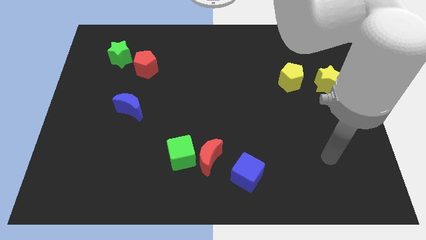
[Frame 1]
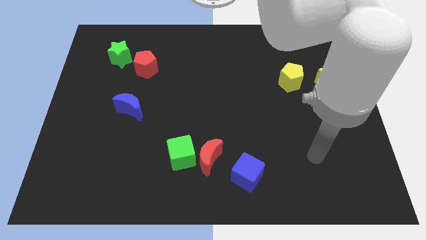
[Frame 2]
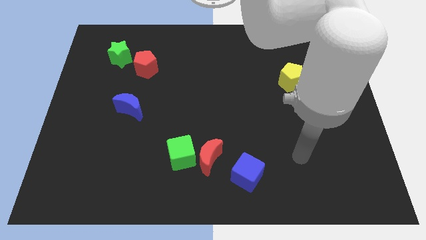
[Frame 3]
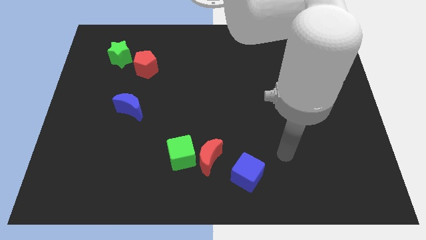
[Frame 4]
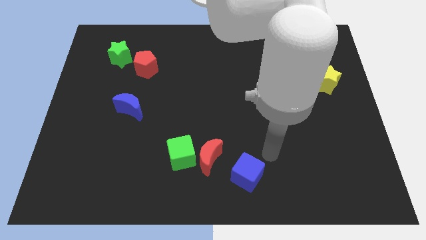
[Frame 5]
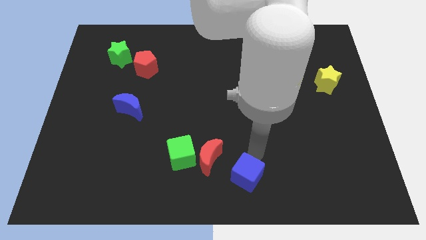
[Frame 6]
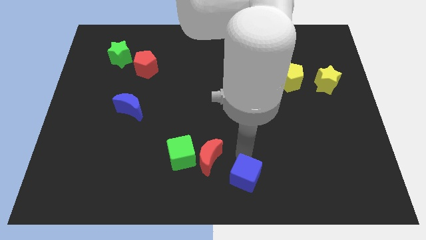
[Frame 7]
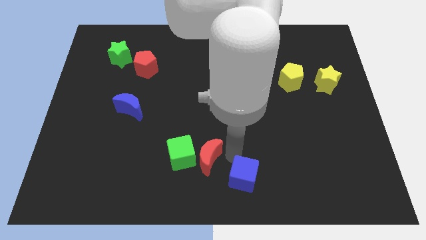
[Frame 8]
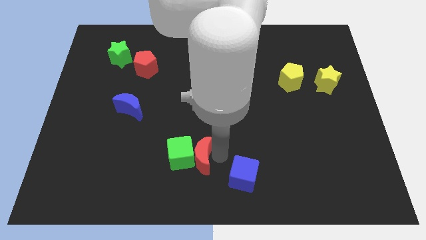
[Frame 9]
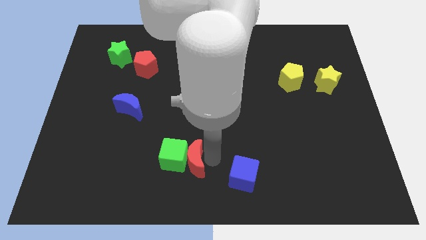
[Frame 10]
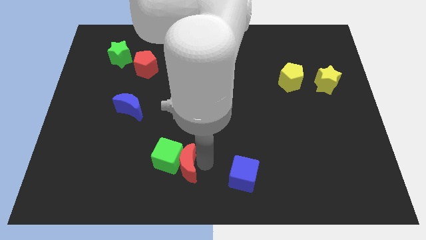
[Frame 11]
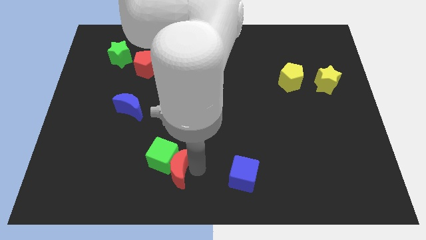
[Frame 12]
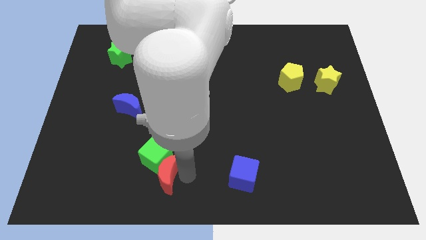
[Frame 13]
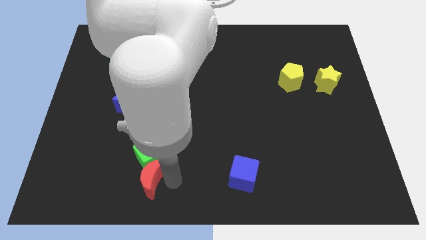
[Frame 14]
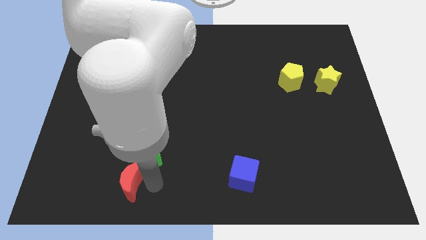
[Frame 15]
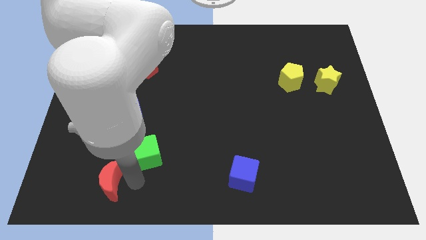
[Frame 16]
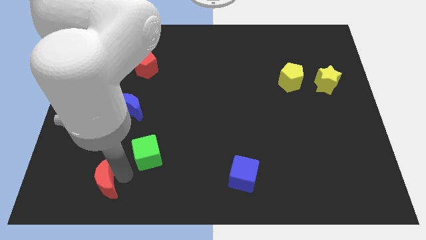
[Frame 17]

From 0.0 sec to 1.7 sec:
pull the green cube apart from the red moon

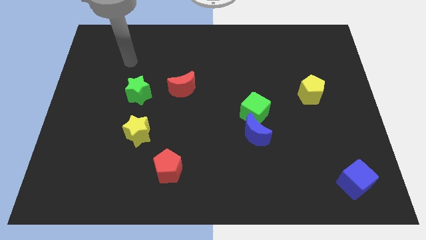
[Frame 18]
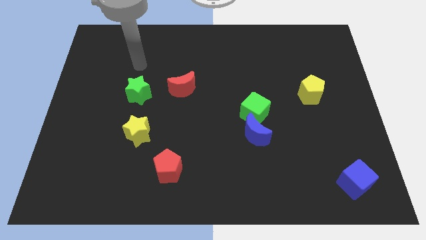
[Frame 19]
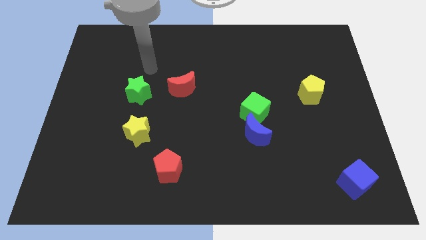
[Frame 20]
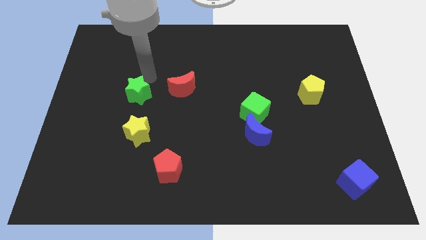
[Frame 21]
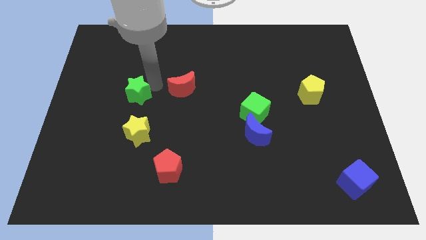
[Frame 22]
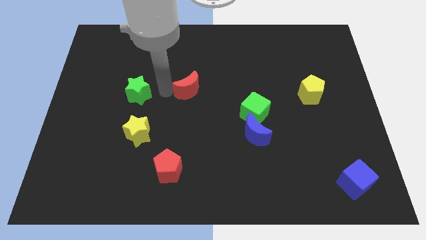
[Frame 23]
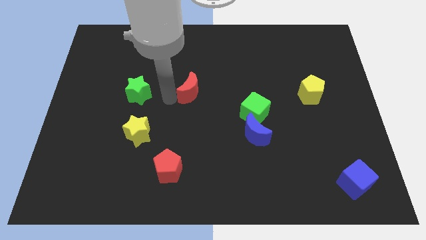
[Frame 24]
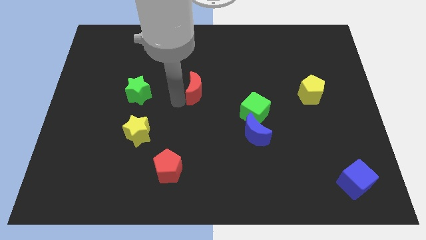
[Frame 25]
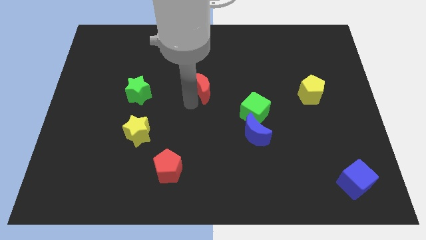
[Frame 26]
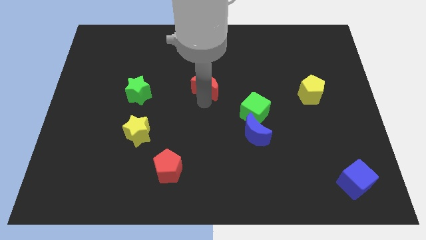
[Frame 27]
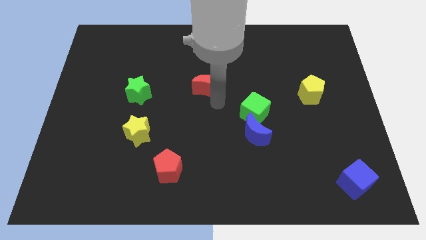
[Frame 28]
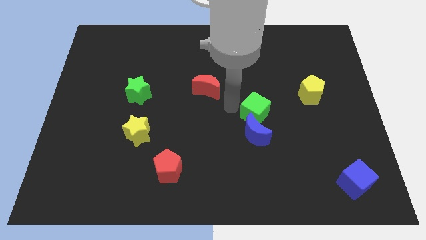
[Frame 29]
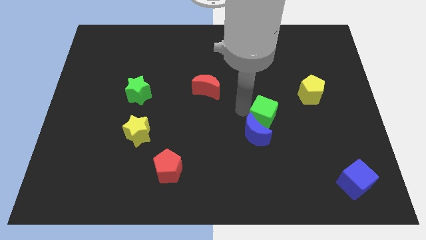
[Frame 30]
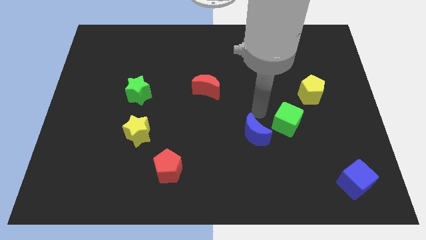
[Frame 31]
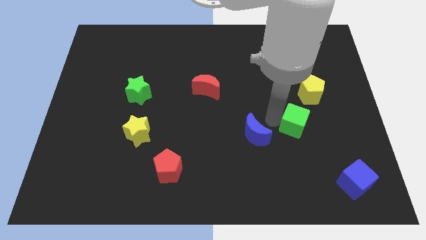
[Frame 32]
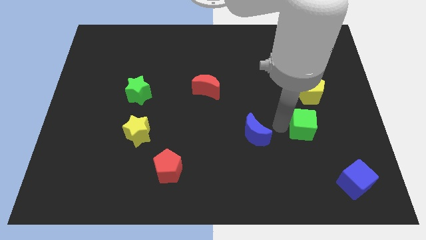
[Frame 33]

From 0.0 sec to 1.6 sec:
separate the blue moon from the green cube

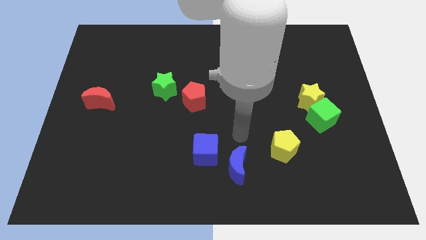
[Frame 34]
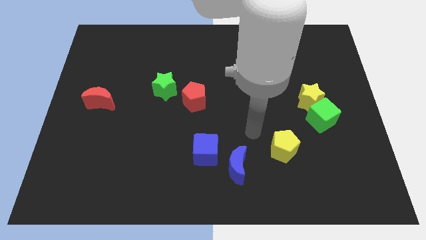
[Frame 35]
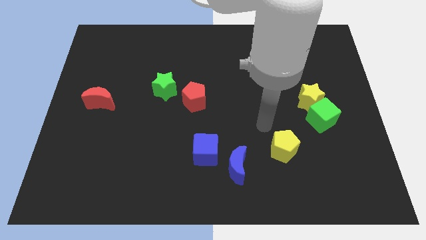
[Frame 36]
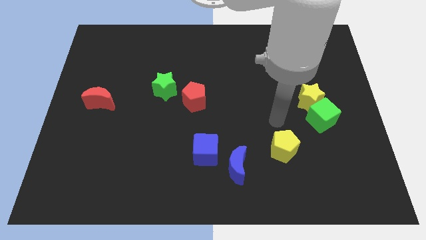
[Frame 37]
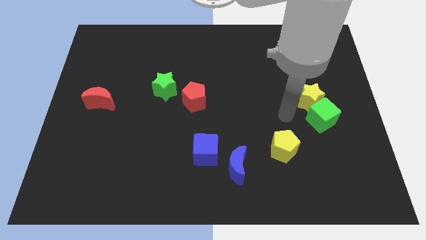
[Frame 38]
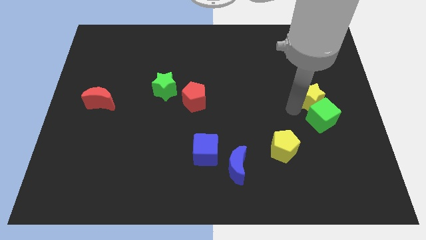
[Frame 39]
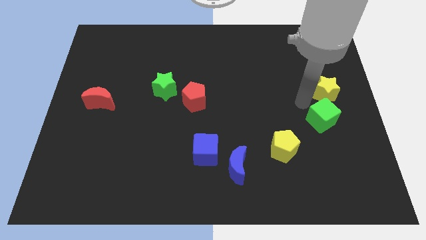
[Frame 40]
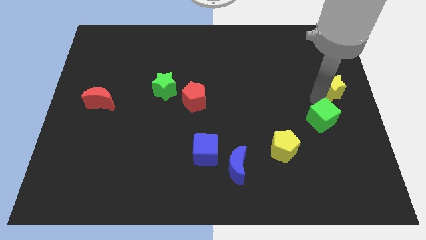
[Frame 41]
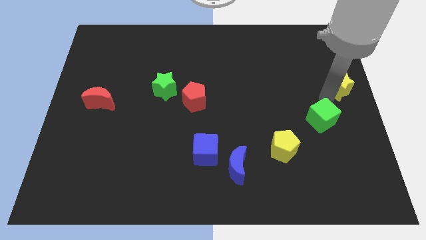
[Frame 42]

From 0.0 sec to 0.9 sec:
pull the green cube apart from the yellow star

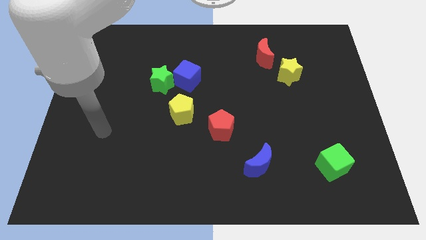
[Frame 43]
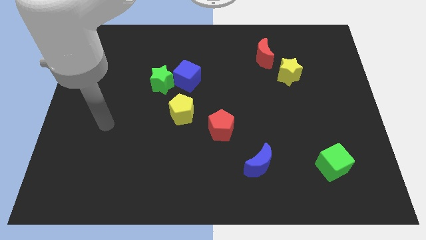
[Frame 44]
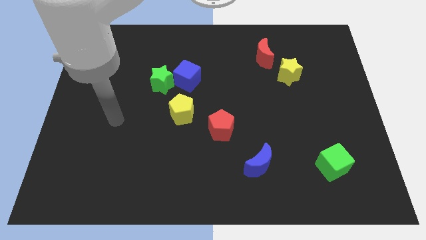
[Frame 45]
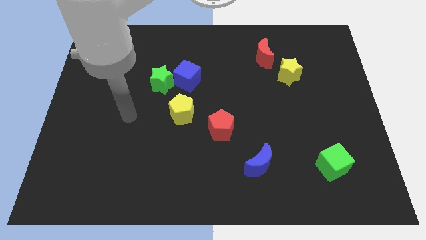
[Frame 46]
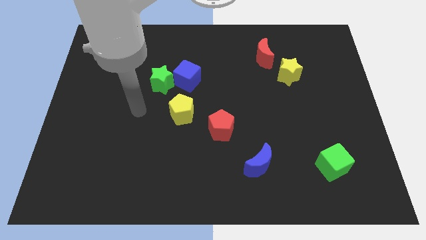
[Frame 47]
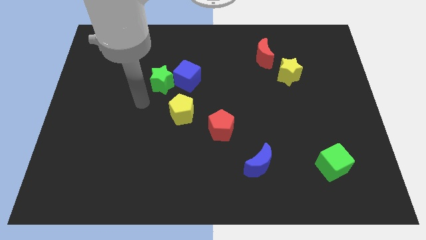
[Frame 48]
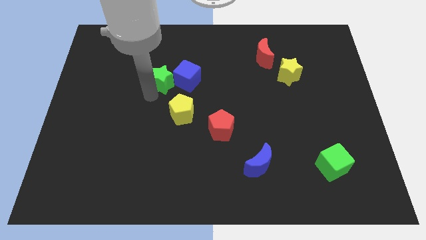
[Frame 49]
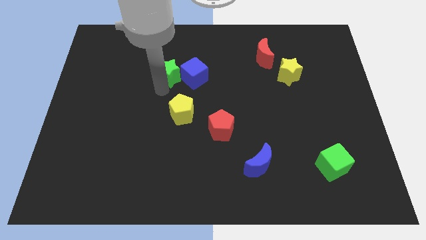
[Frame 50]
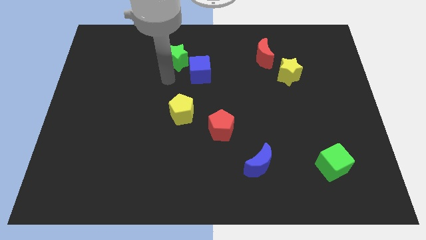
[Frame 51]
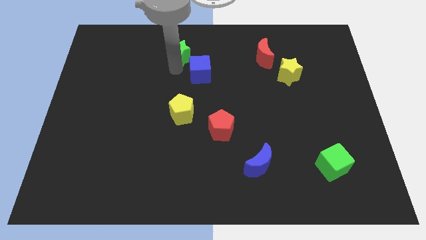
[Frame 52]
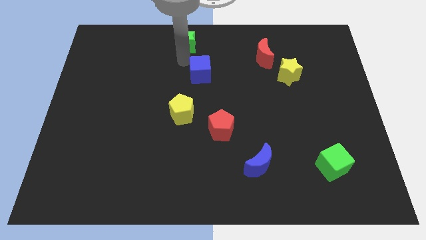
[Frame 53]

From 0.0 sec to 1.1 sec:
pull the blue cube apart from the green star

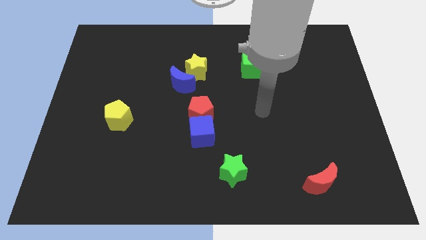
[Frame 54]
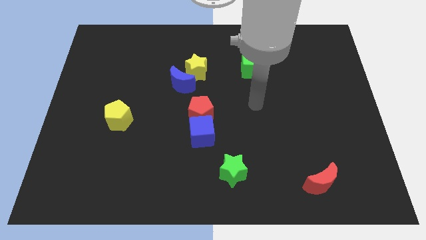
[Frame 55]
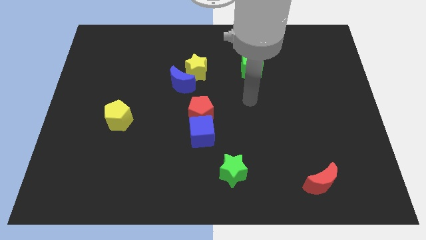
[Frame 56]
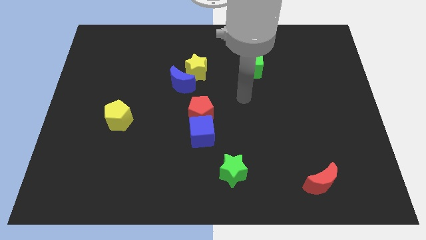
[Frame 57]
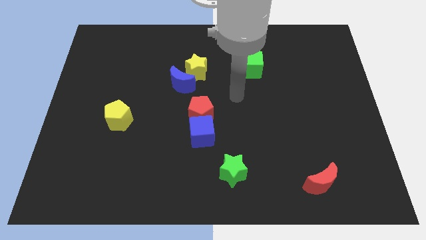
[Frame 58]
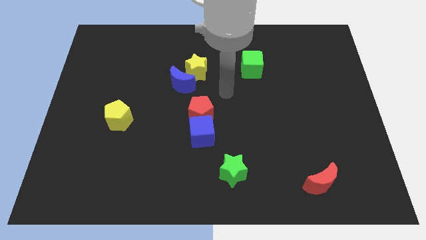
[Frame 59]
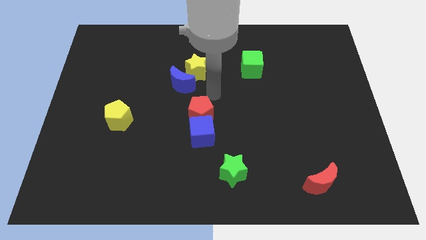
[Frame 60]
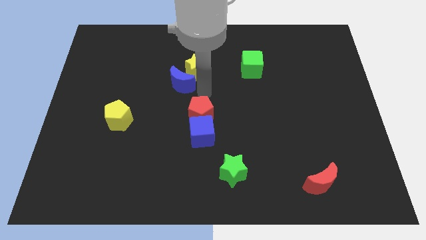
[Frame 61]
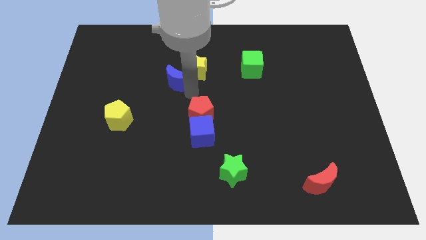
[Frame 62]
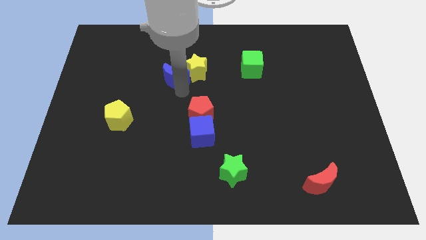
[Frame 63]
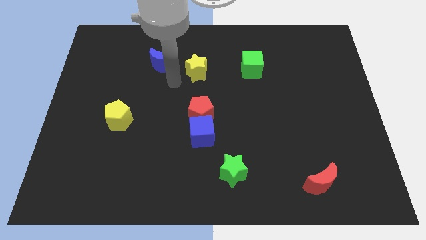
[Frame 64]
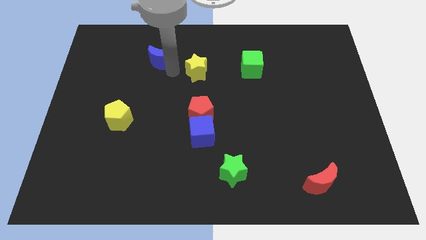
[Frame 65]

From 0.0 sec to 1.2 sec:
pull the yellow star apart from the blue moon

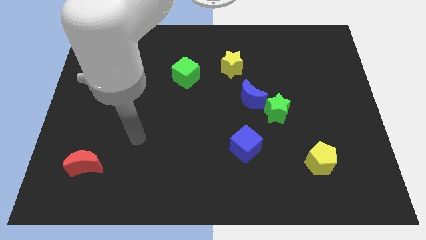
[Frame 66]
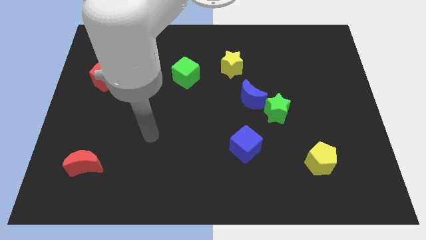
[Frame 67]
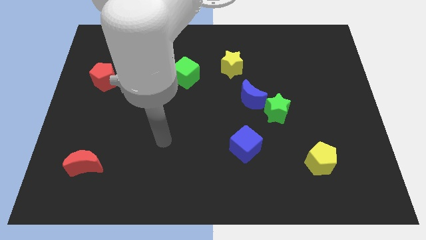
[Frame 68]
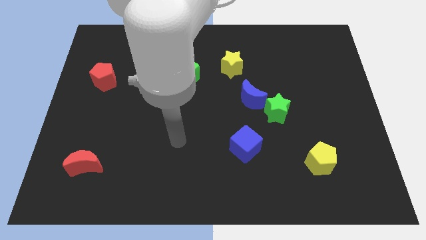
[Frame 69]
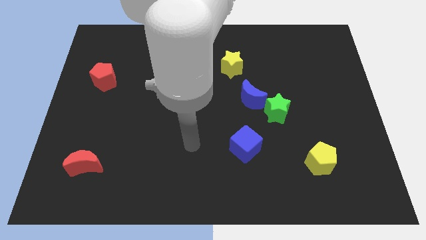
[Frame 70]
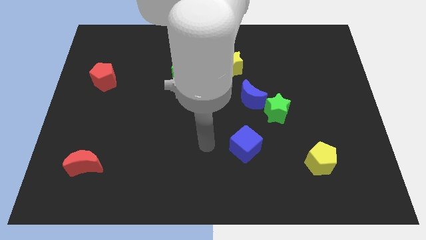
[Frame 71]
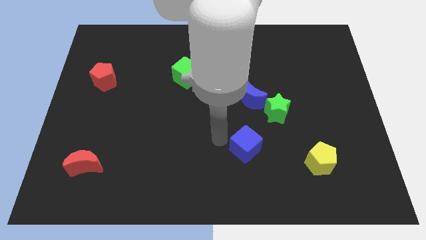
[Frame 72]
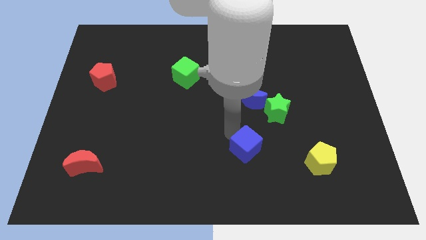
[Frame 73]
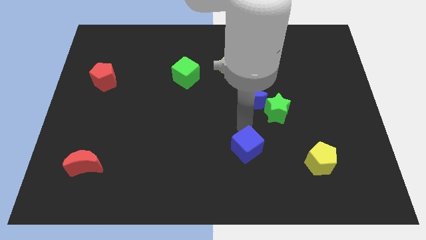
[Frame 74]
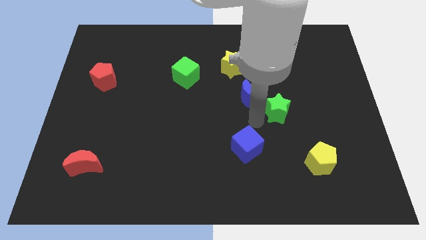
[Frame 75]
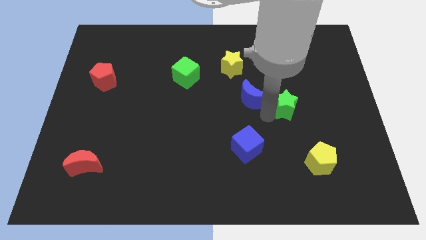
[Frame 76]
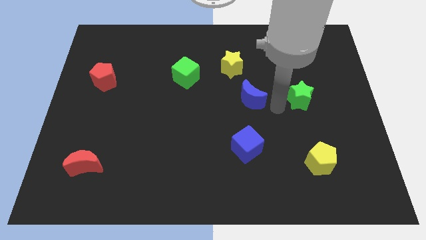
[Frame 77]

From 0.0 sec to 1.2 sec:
separate the blue moon from the green star

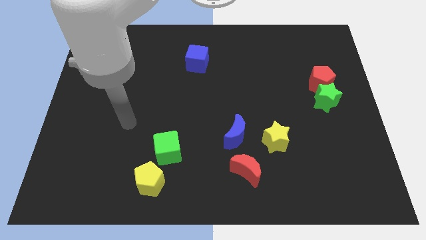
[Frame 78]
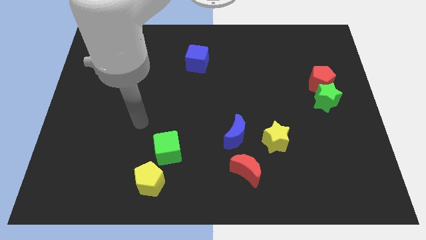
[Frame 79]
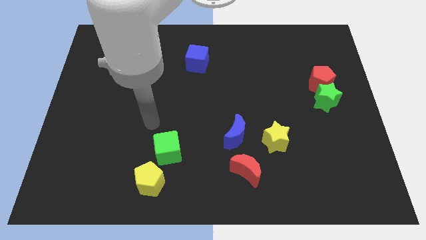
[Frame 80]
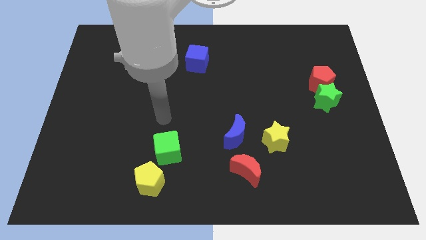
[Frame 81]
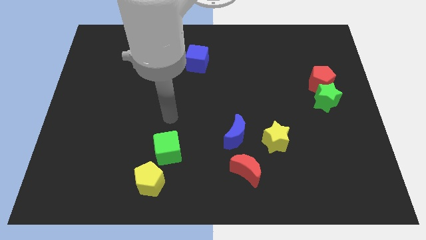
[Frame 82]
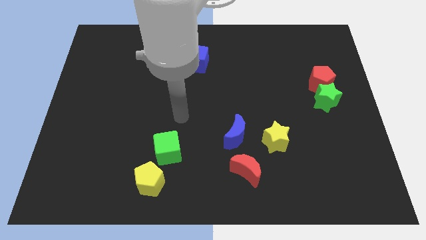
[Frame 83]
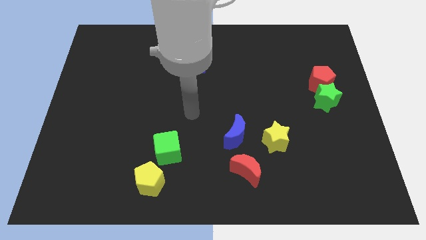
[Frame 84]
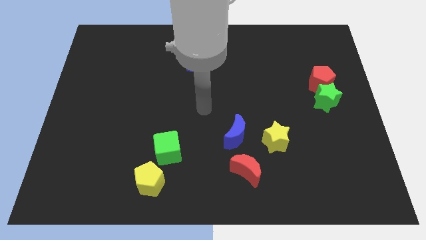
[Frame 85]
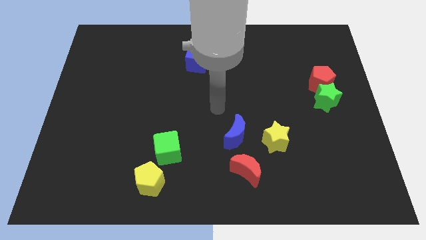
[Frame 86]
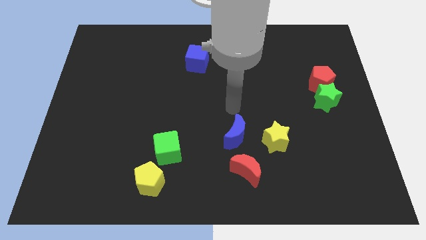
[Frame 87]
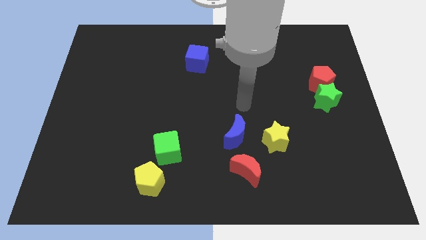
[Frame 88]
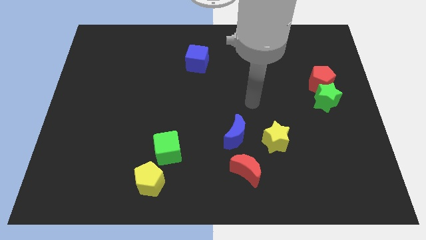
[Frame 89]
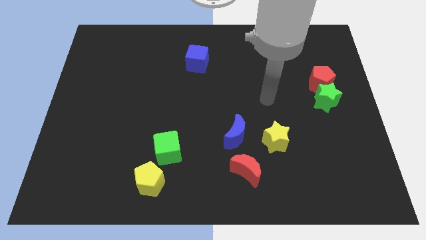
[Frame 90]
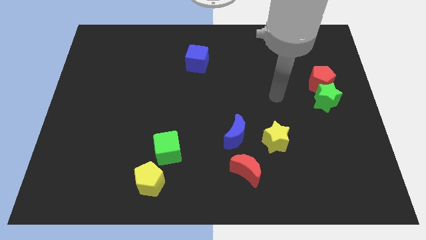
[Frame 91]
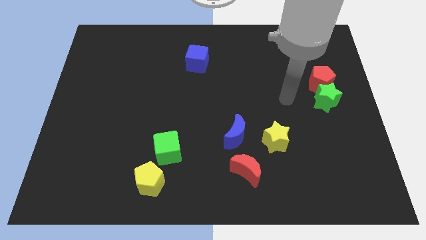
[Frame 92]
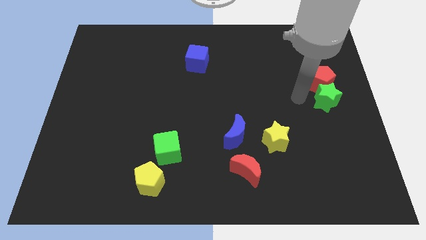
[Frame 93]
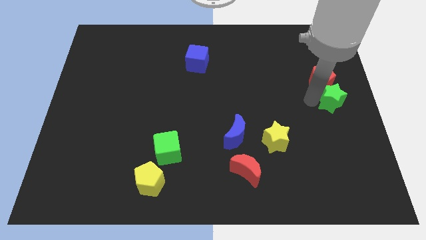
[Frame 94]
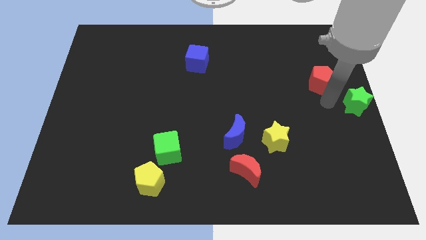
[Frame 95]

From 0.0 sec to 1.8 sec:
move the red pentagon away from the green star
